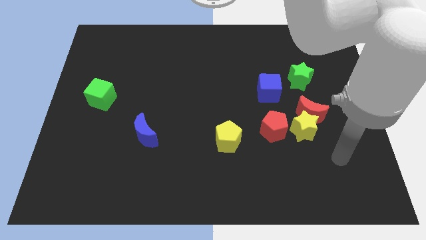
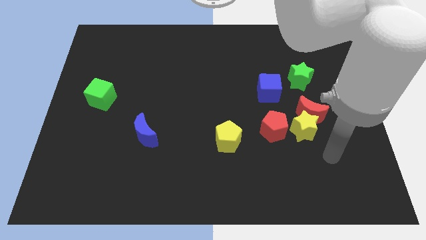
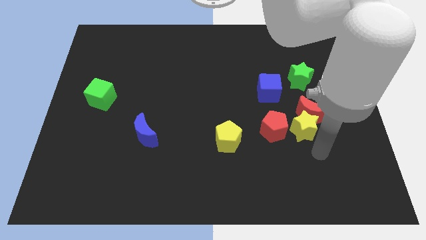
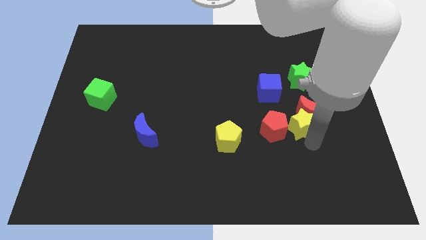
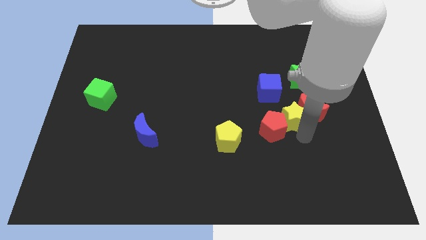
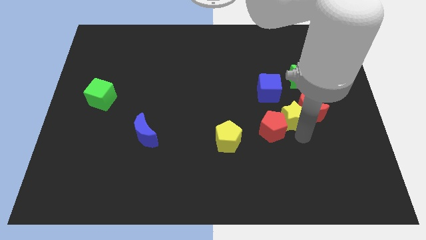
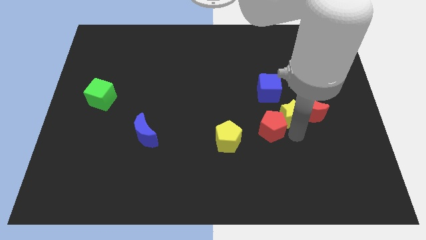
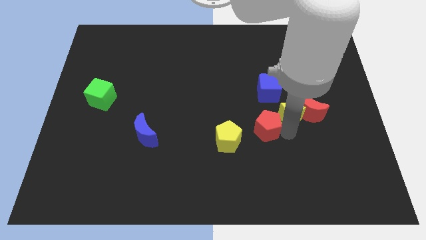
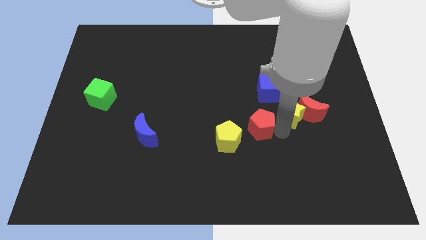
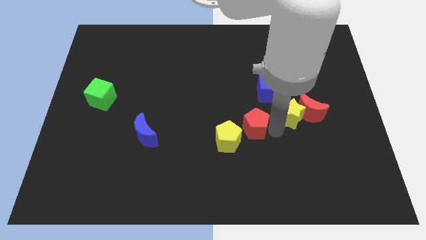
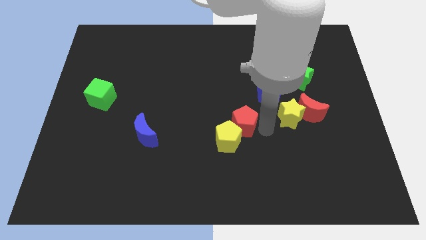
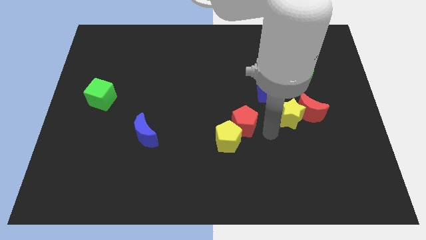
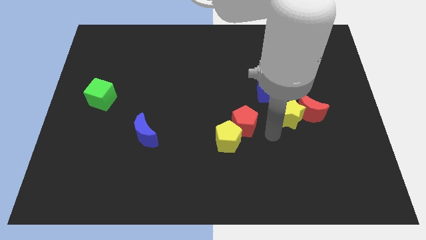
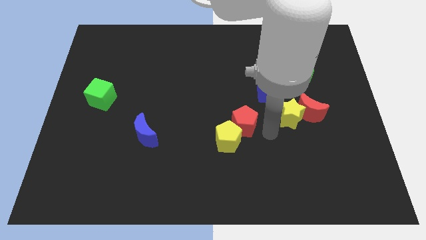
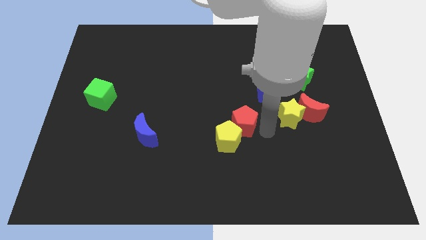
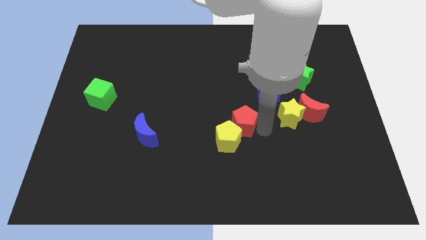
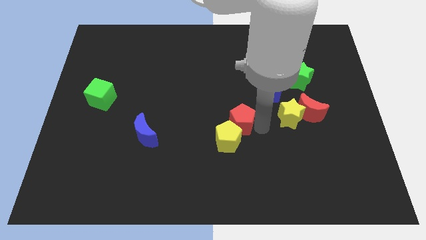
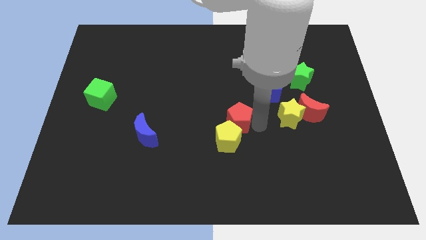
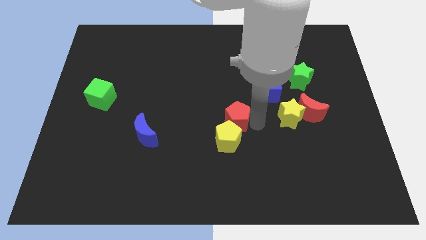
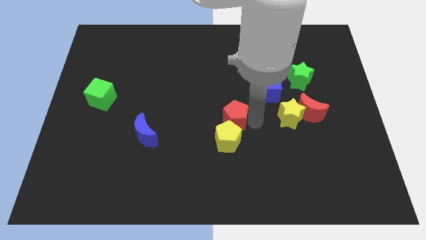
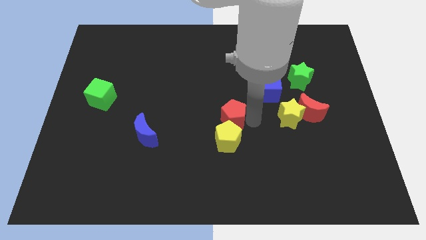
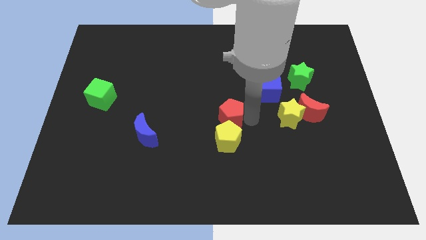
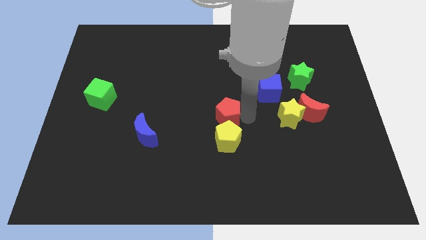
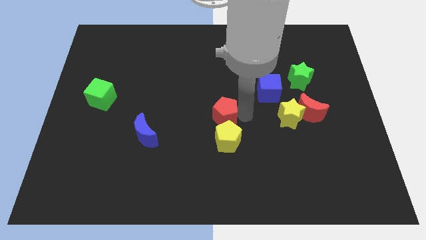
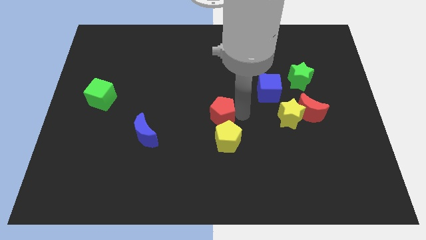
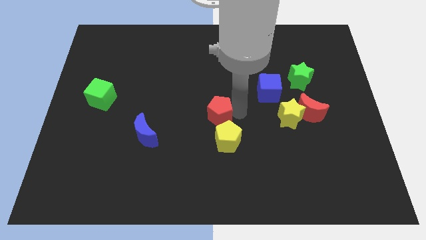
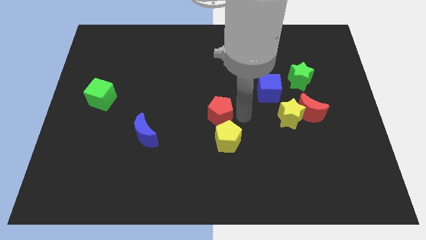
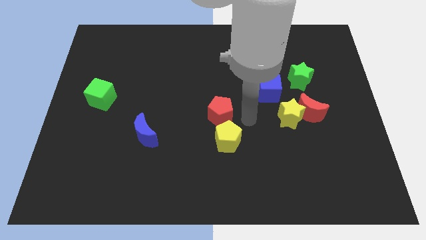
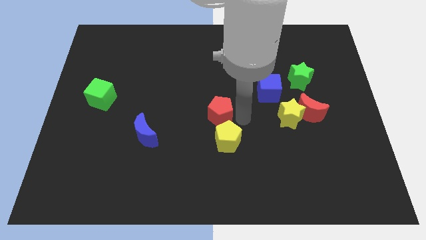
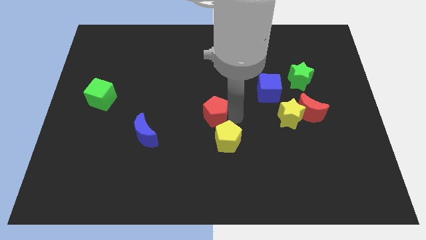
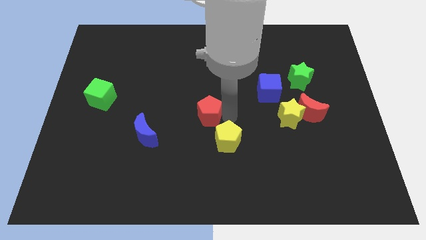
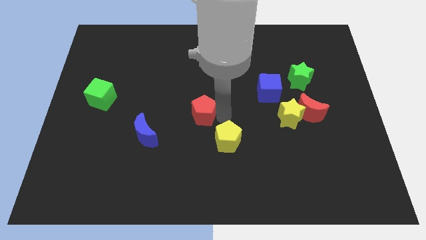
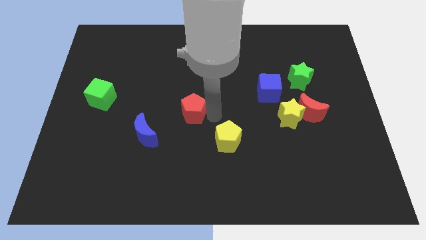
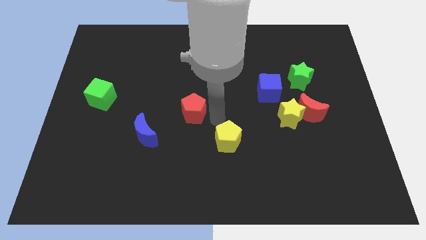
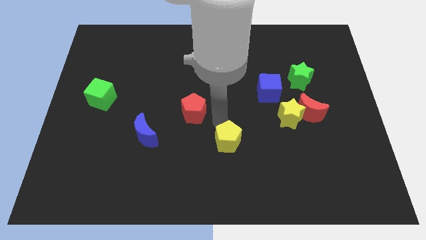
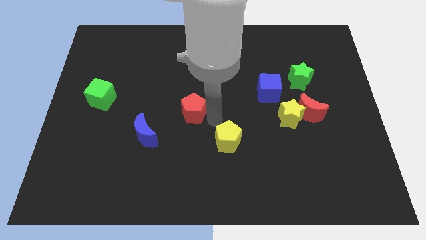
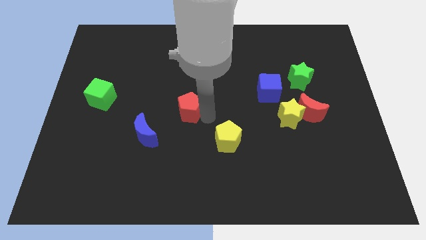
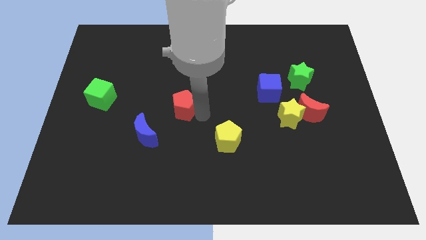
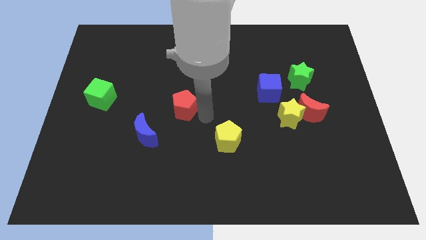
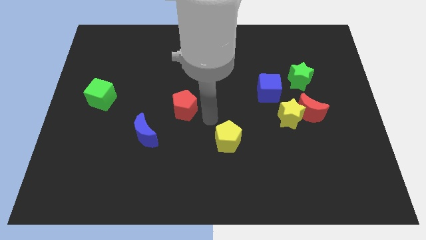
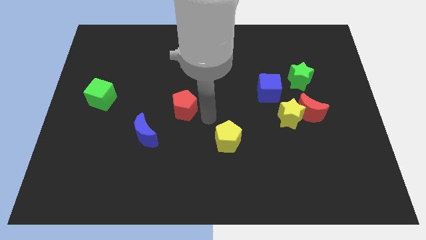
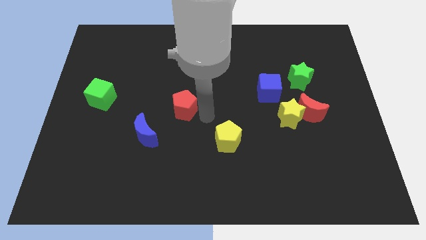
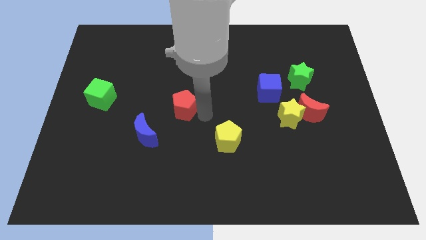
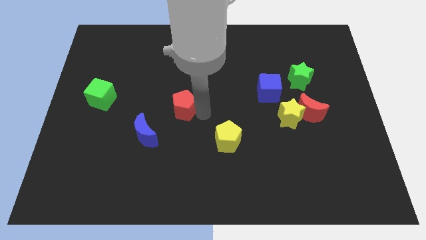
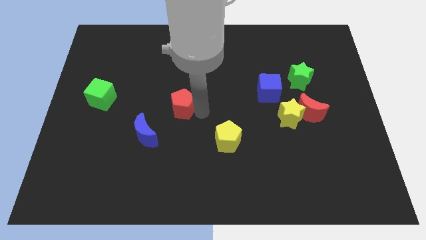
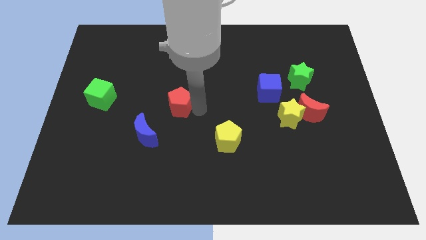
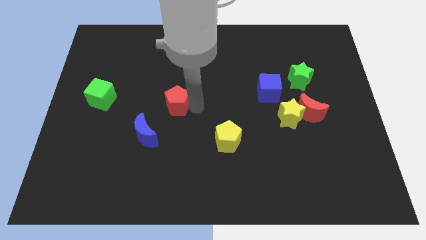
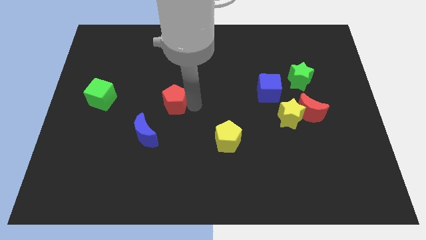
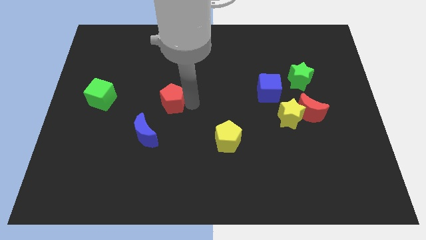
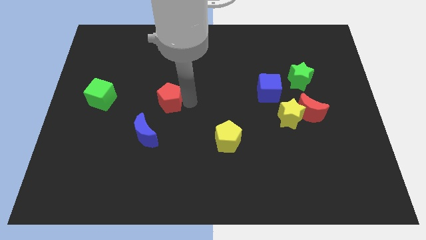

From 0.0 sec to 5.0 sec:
slide the red pentagon to the top of the blue moon

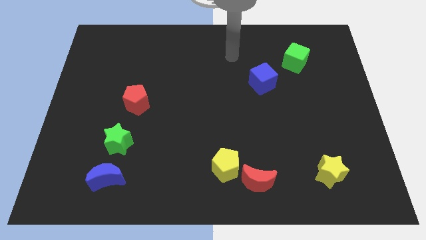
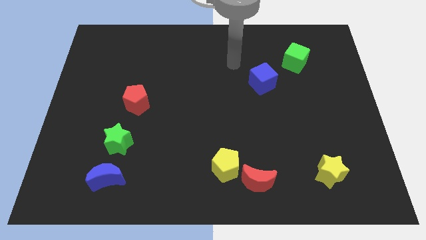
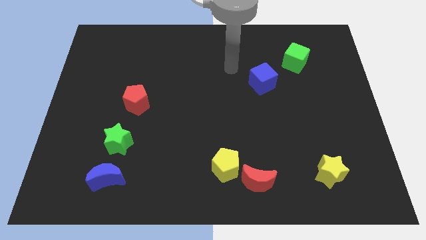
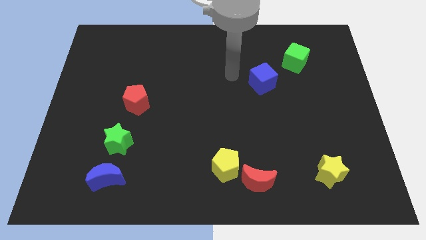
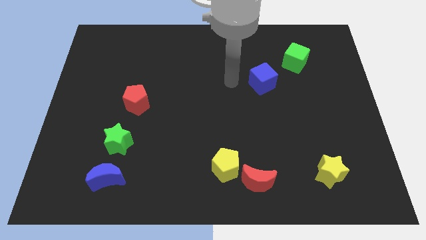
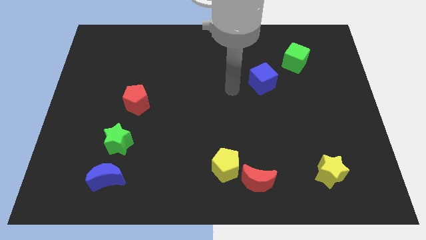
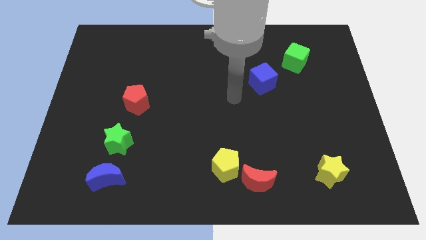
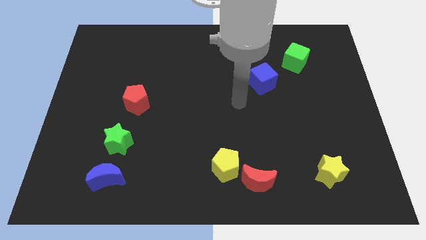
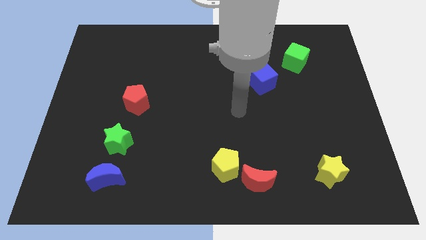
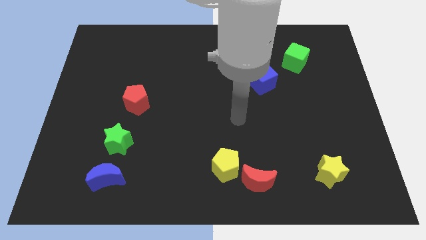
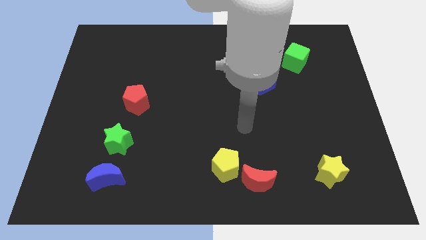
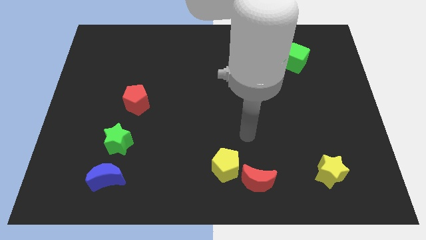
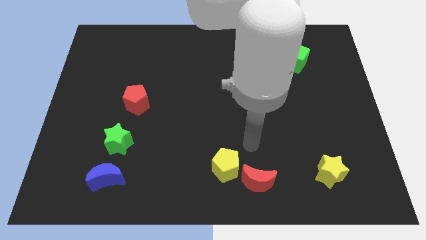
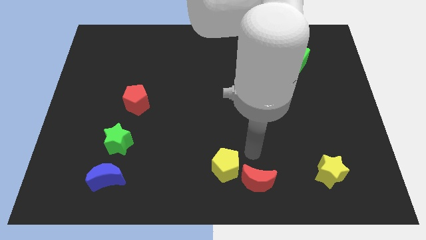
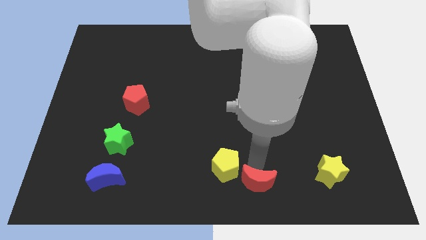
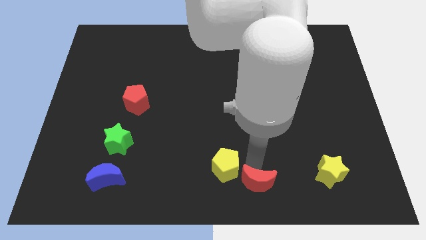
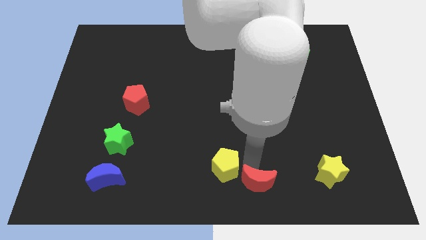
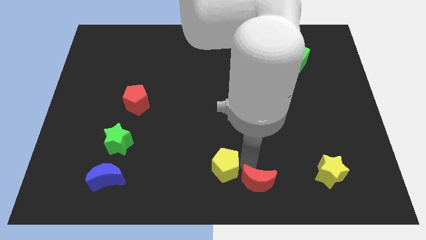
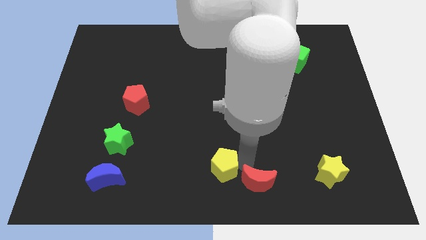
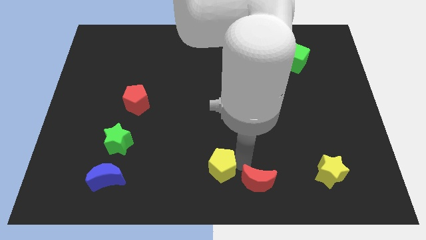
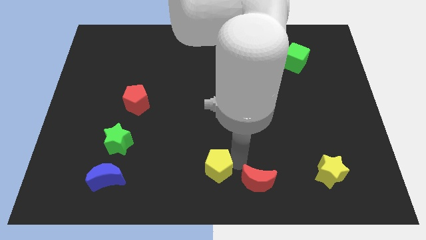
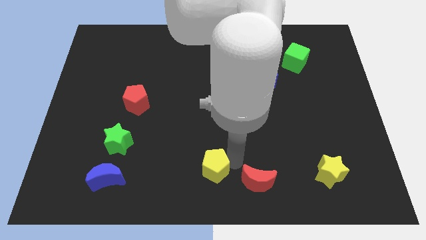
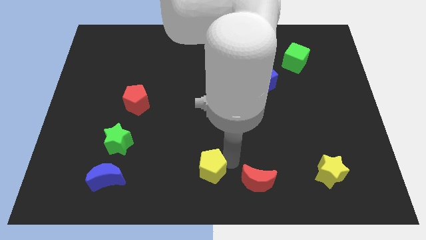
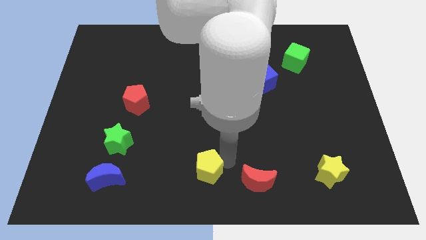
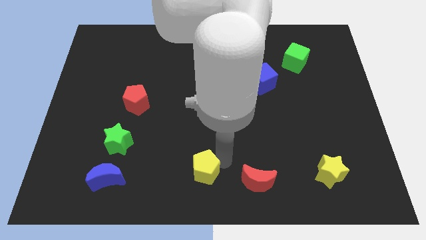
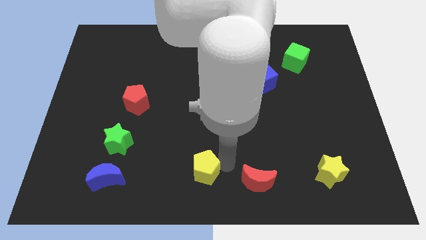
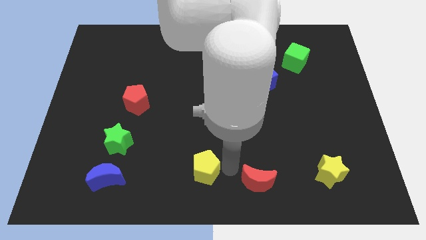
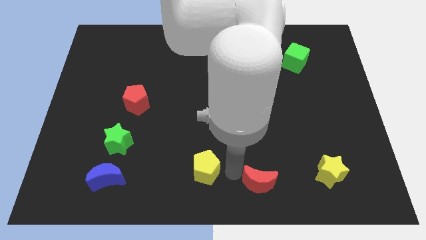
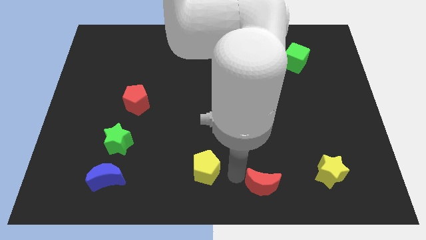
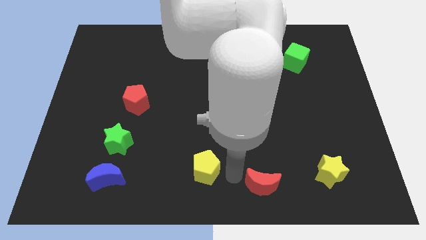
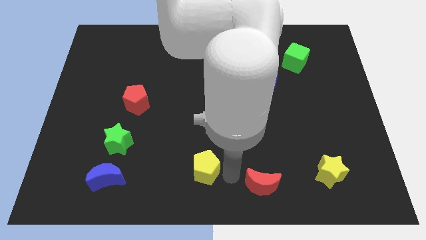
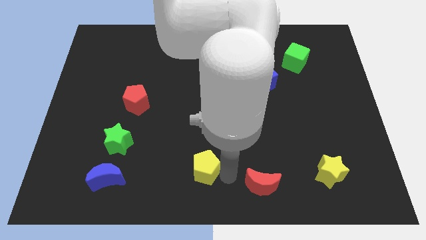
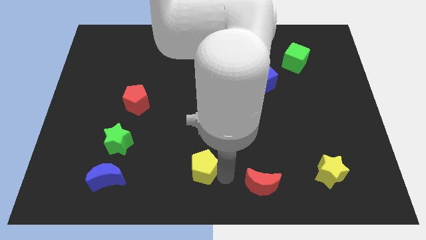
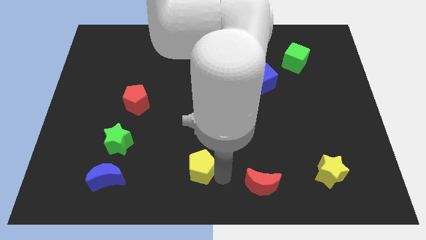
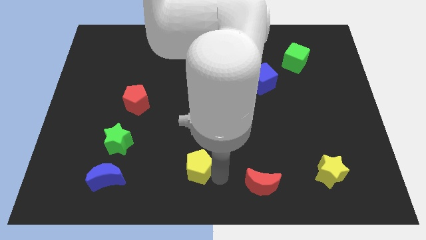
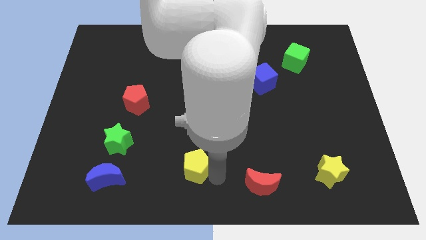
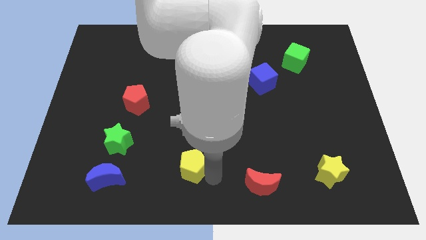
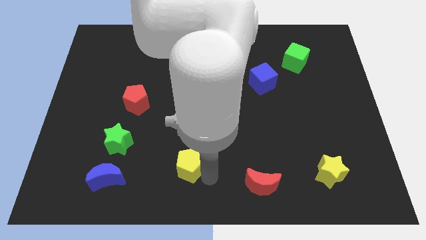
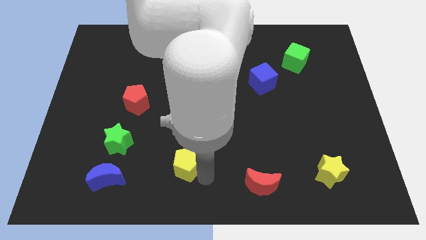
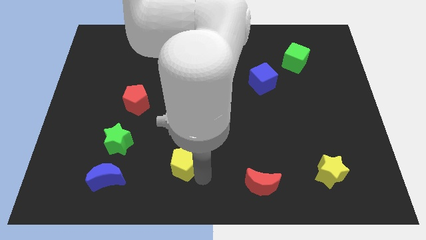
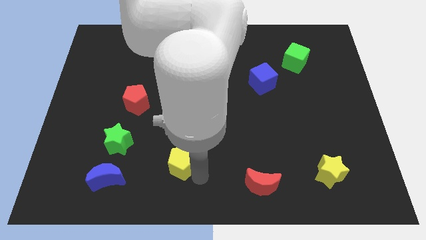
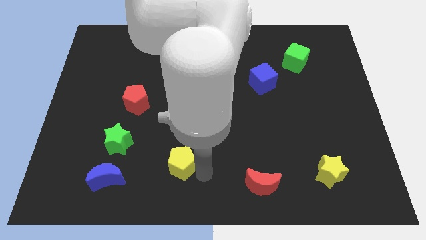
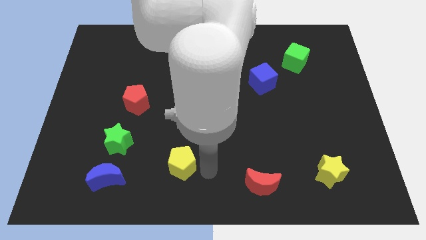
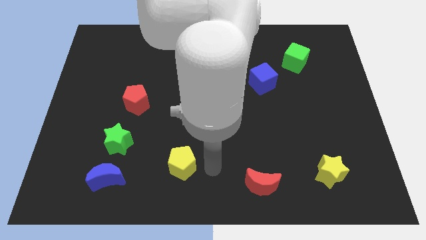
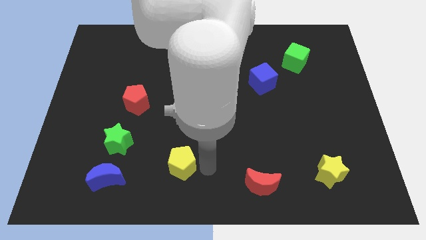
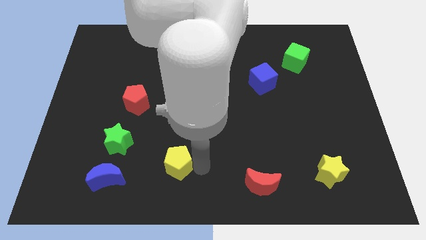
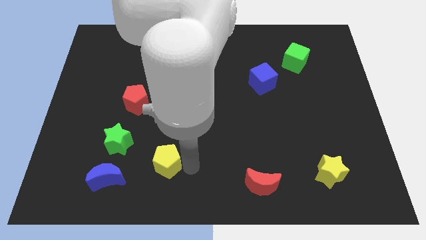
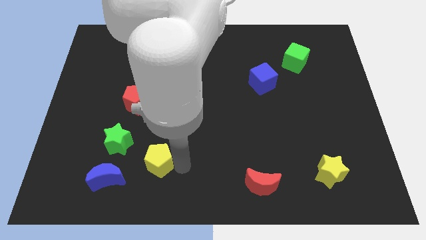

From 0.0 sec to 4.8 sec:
put the yellow pentagon to the top right side of the blue moon
